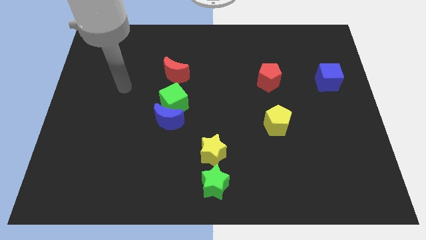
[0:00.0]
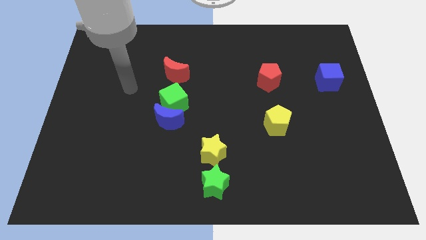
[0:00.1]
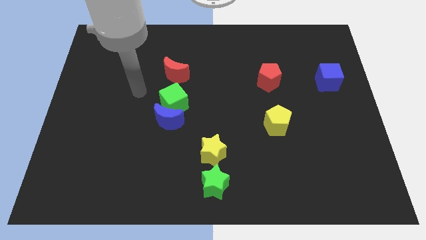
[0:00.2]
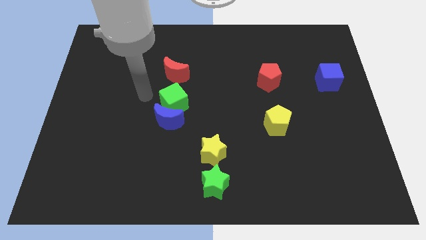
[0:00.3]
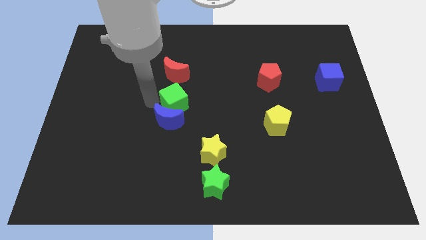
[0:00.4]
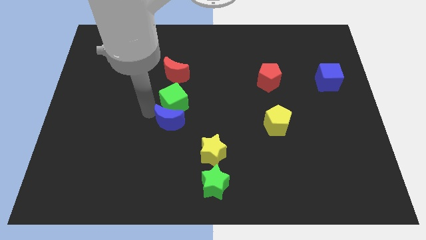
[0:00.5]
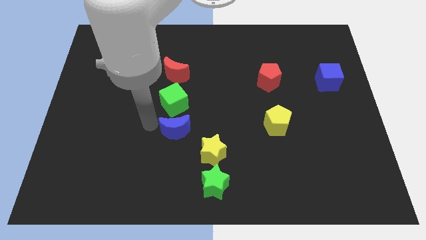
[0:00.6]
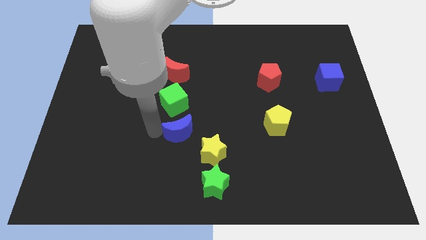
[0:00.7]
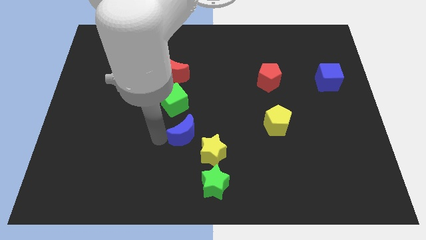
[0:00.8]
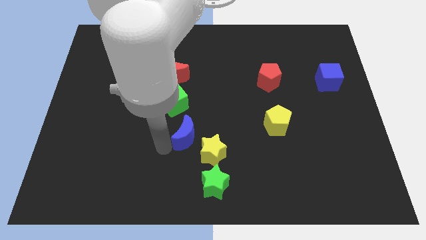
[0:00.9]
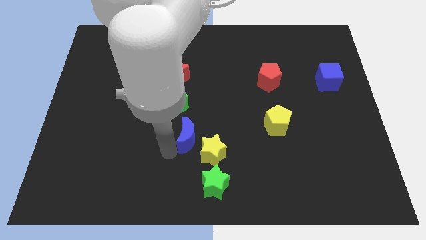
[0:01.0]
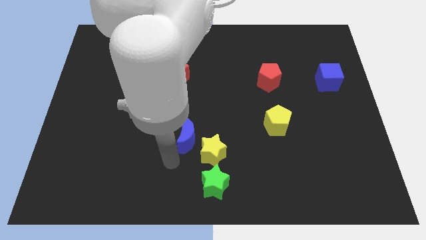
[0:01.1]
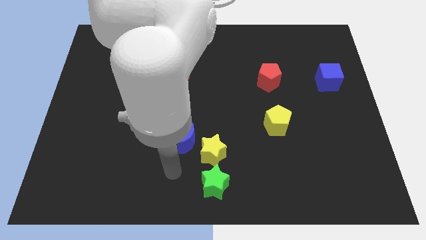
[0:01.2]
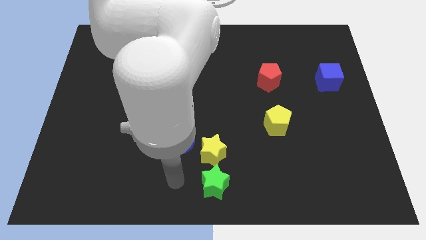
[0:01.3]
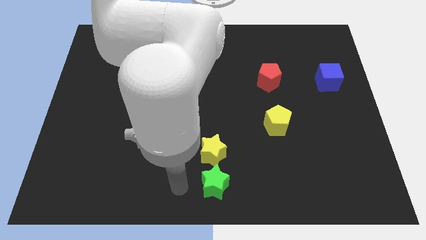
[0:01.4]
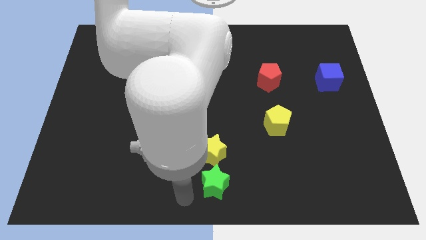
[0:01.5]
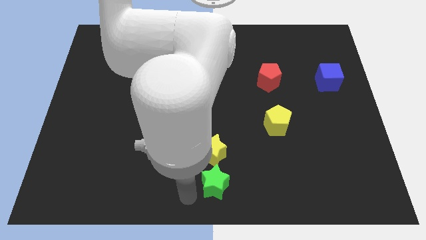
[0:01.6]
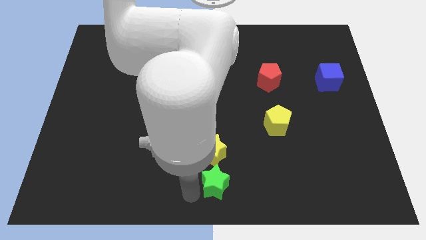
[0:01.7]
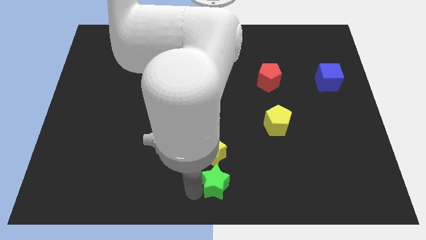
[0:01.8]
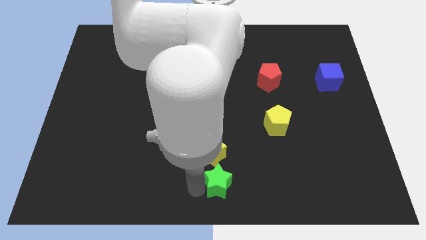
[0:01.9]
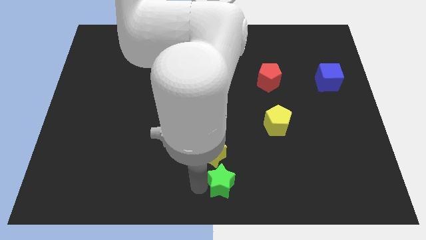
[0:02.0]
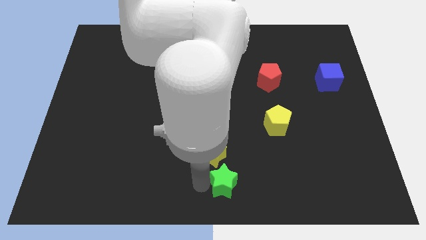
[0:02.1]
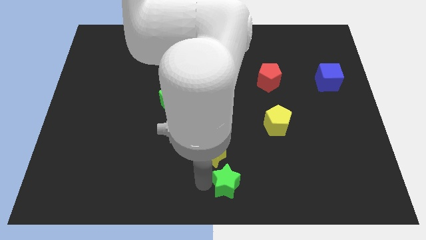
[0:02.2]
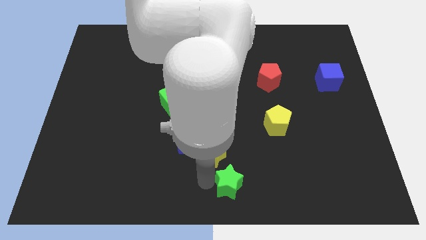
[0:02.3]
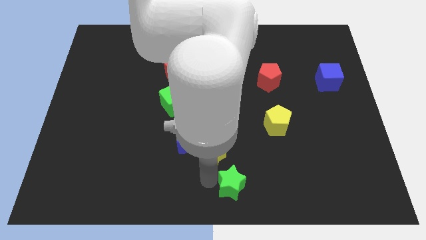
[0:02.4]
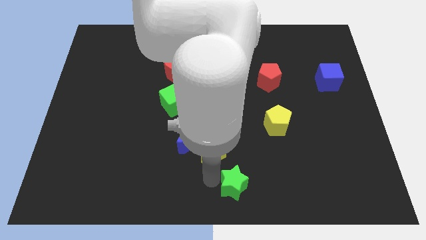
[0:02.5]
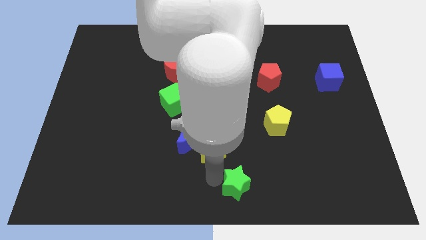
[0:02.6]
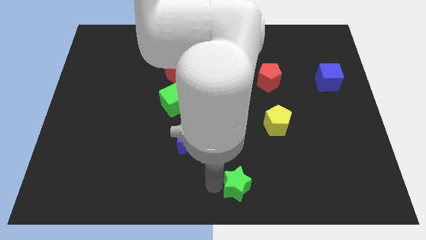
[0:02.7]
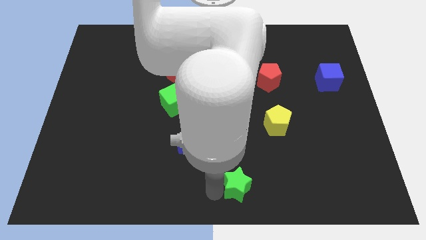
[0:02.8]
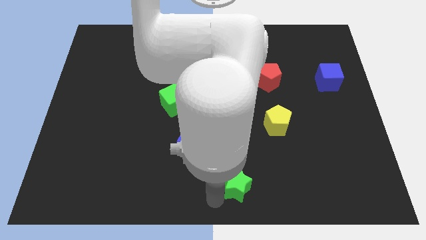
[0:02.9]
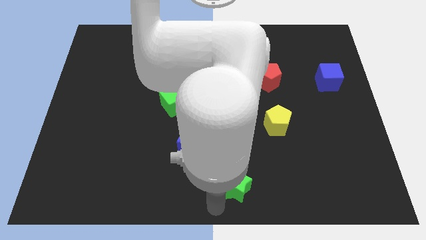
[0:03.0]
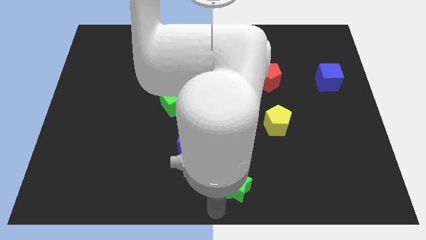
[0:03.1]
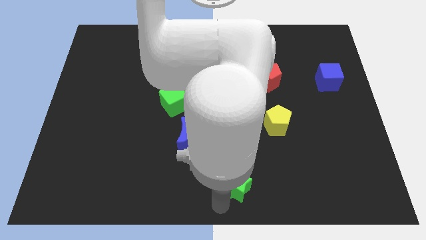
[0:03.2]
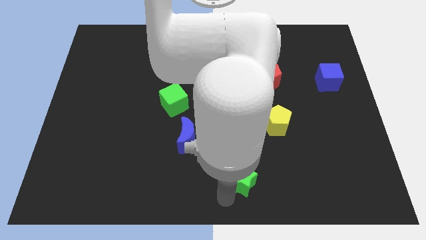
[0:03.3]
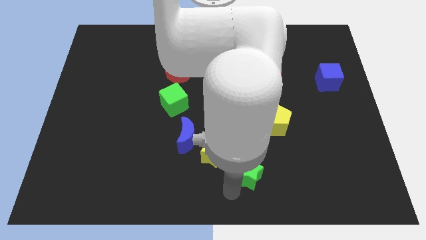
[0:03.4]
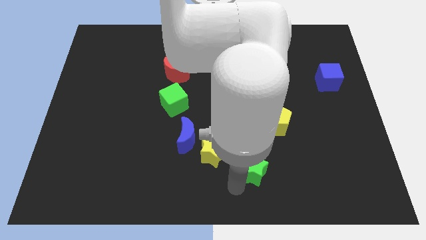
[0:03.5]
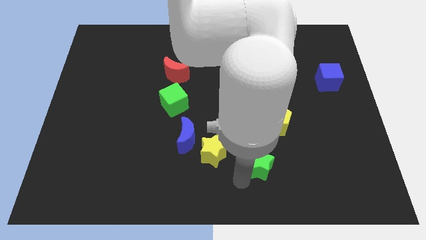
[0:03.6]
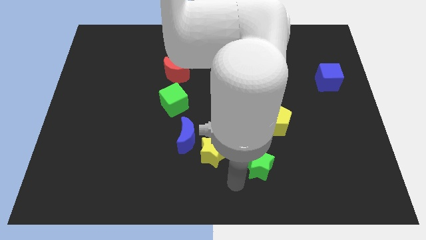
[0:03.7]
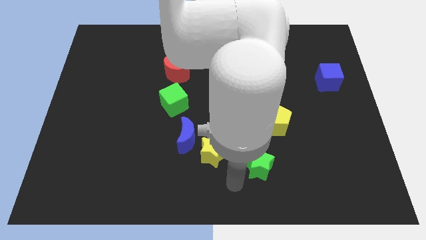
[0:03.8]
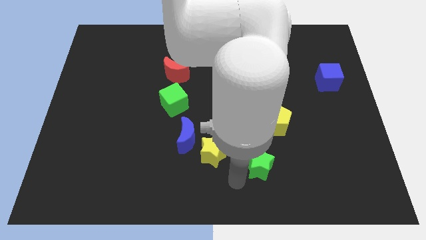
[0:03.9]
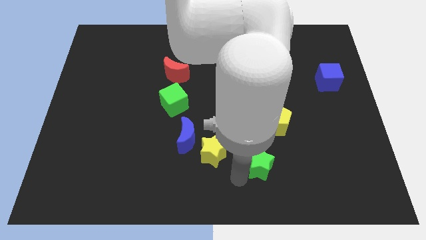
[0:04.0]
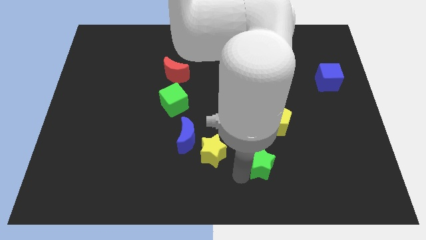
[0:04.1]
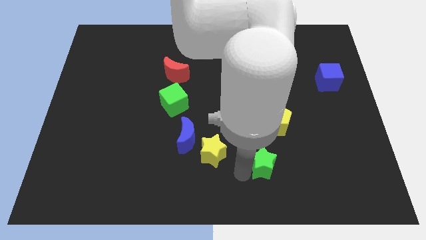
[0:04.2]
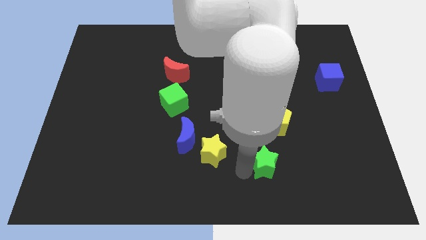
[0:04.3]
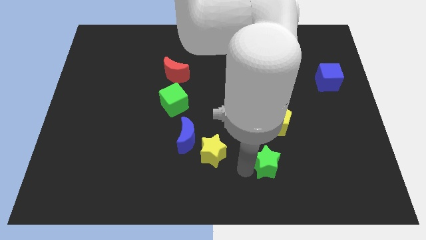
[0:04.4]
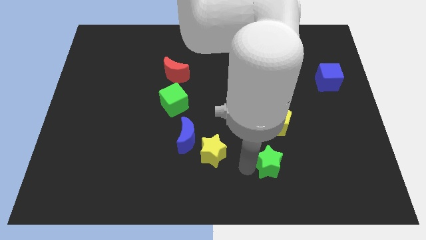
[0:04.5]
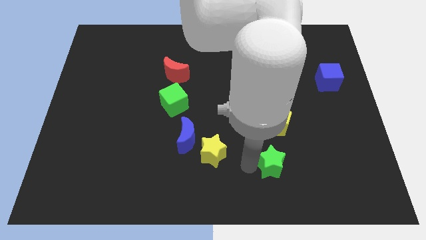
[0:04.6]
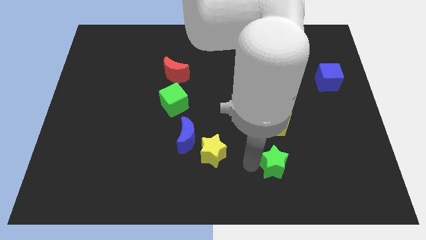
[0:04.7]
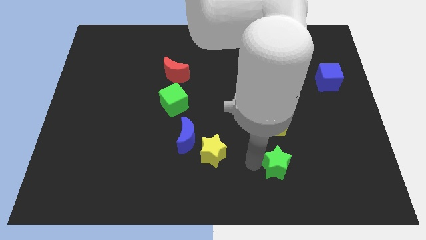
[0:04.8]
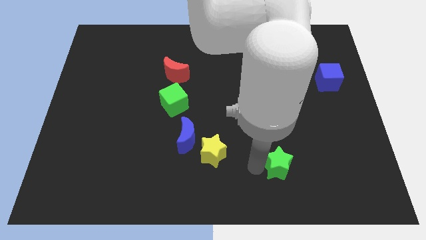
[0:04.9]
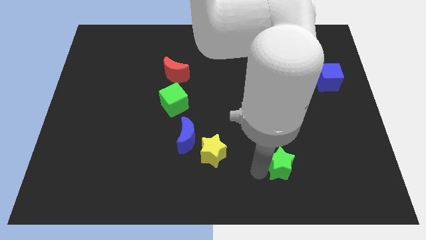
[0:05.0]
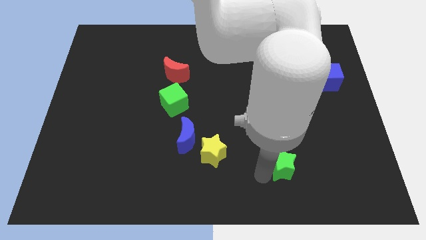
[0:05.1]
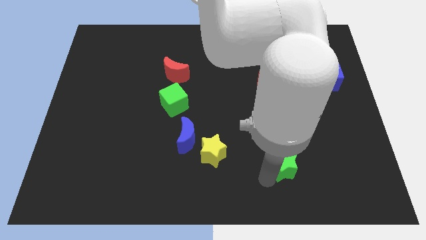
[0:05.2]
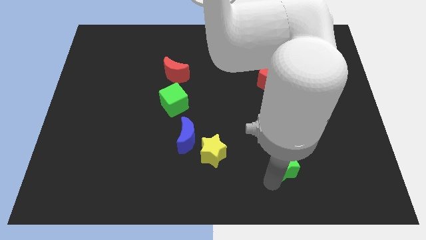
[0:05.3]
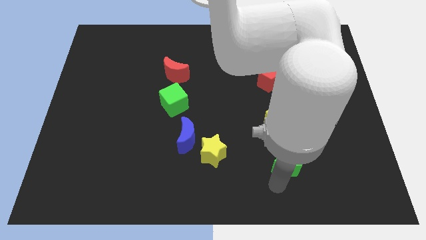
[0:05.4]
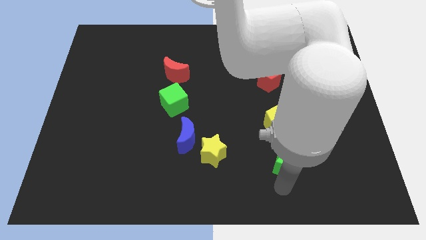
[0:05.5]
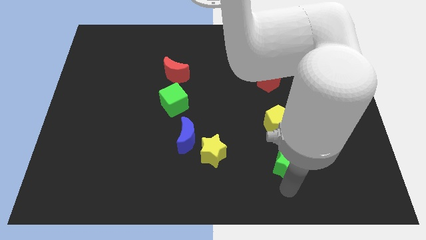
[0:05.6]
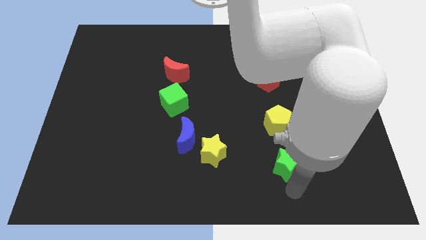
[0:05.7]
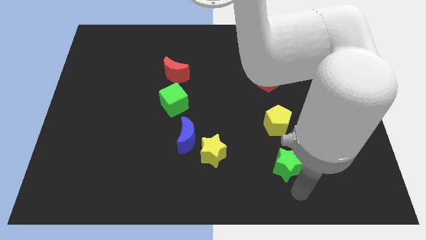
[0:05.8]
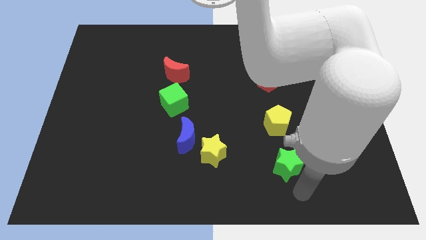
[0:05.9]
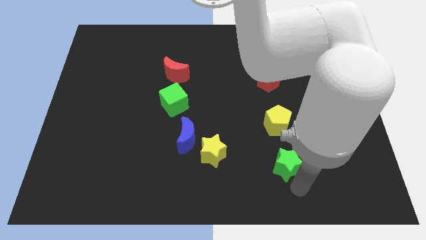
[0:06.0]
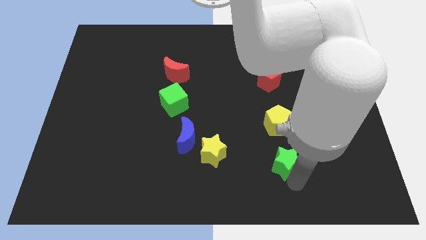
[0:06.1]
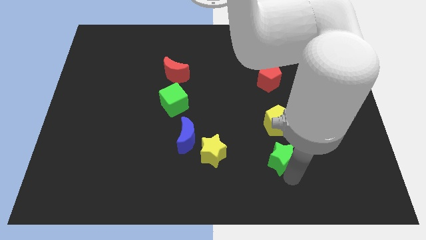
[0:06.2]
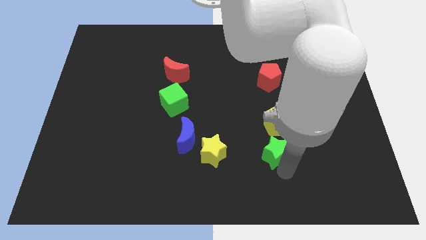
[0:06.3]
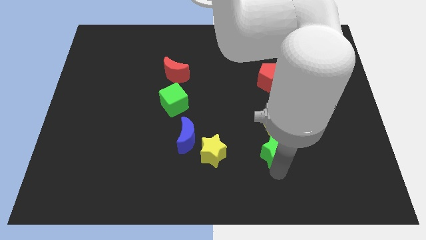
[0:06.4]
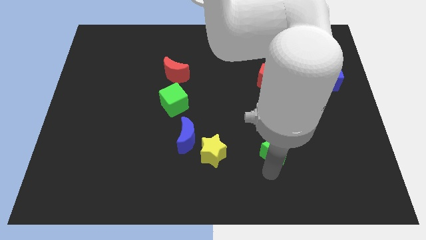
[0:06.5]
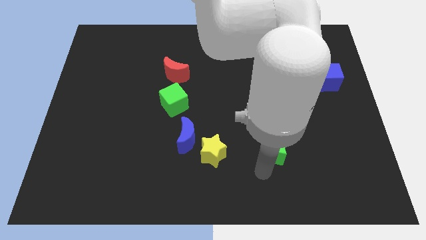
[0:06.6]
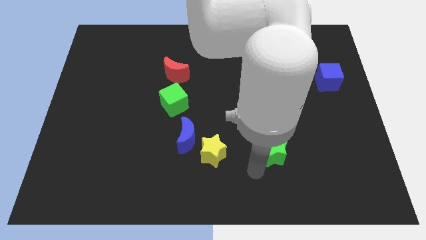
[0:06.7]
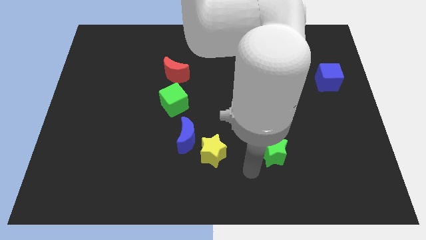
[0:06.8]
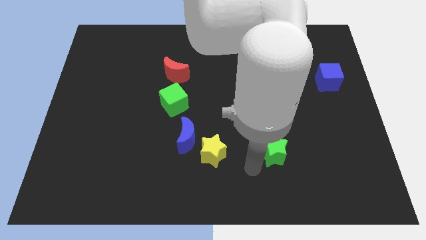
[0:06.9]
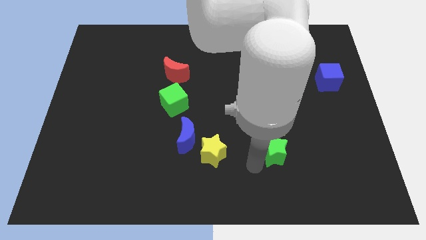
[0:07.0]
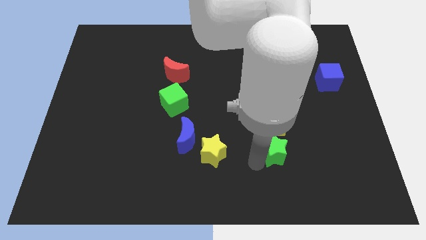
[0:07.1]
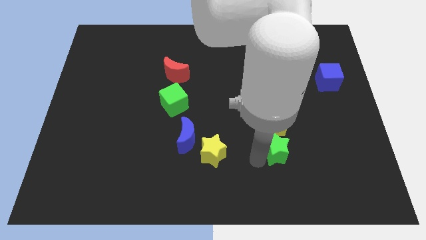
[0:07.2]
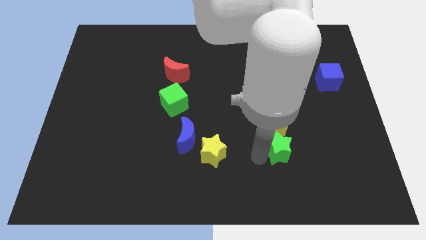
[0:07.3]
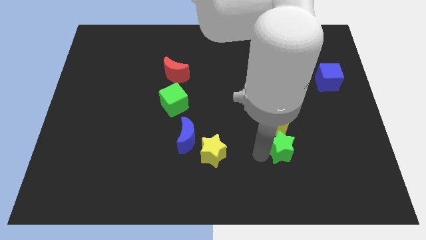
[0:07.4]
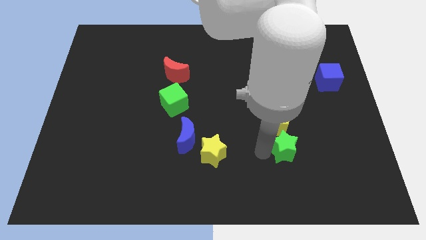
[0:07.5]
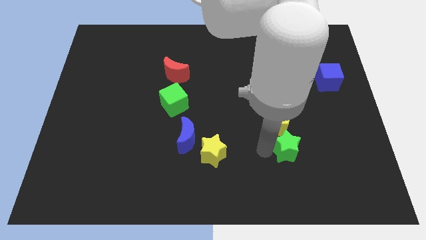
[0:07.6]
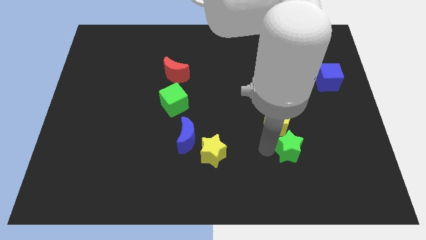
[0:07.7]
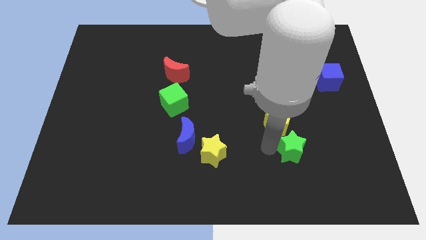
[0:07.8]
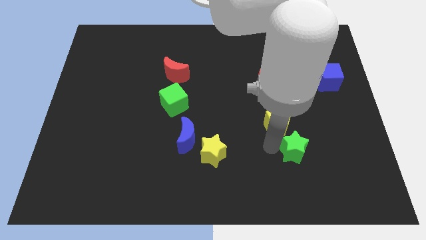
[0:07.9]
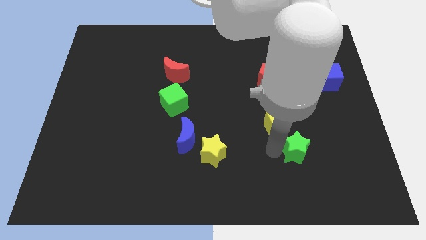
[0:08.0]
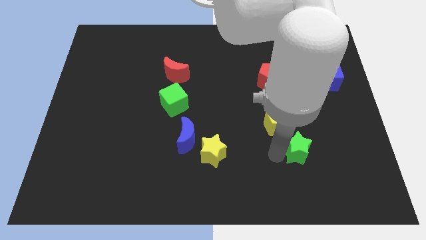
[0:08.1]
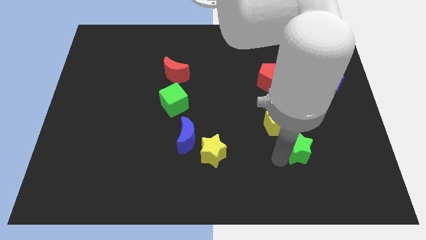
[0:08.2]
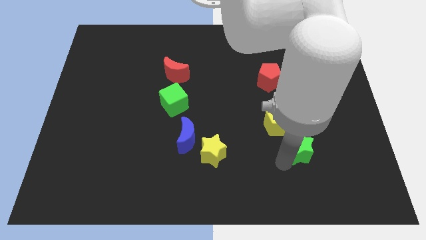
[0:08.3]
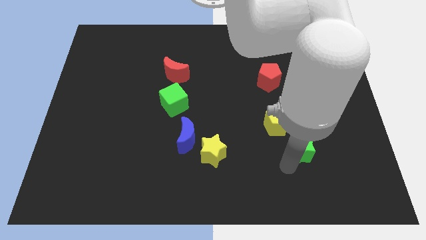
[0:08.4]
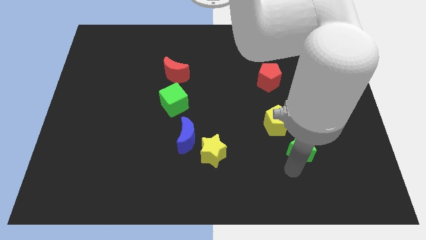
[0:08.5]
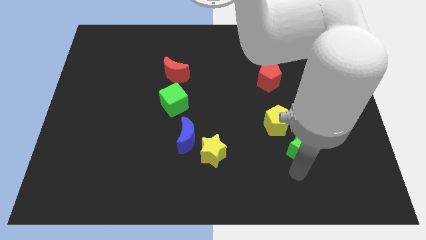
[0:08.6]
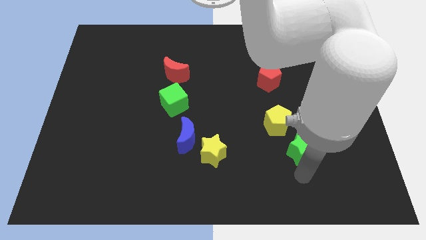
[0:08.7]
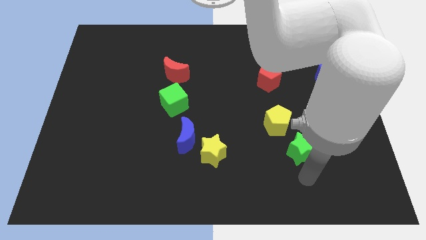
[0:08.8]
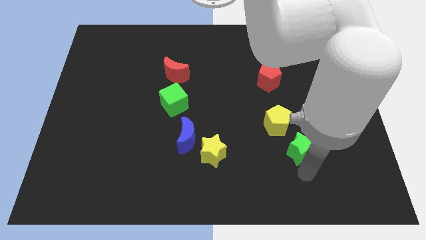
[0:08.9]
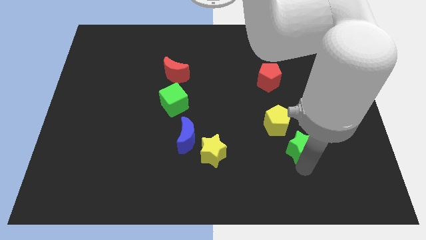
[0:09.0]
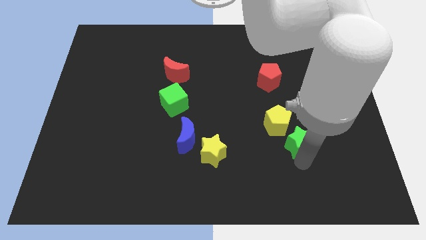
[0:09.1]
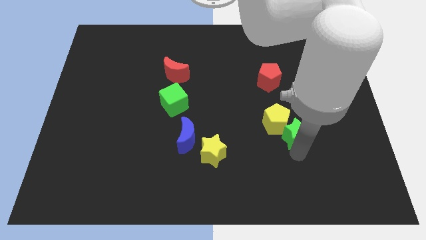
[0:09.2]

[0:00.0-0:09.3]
slide the green star up and to the right diagonally
